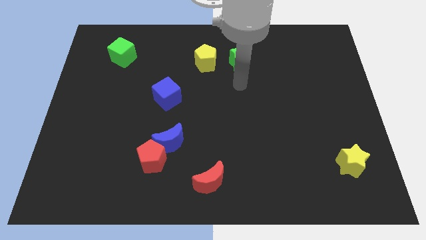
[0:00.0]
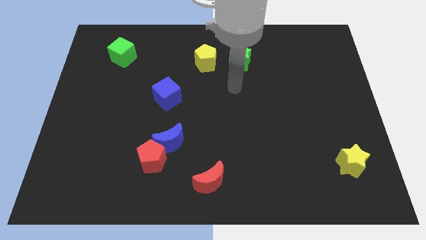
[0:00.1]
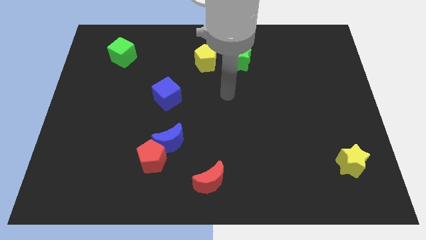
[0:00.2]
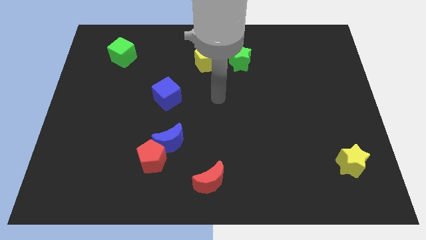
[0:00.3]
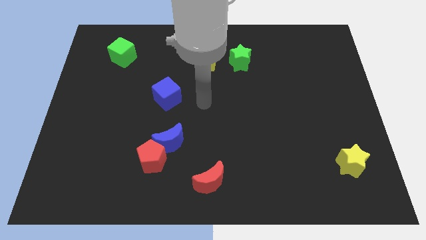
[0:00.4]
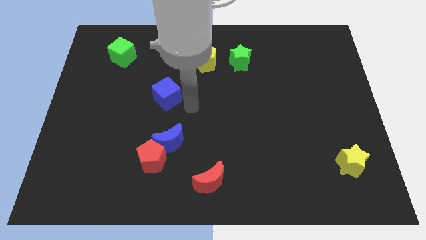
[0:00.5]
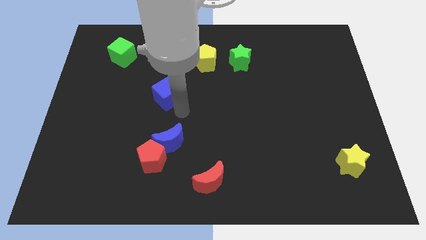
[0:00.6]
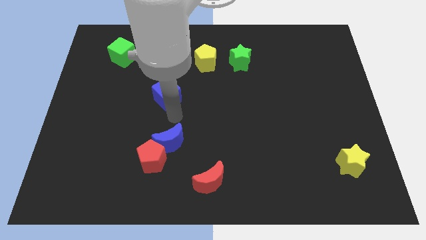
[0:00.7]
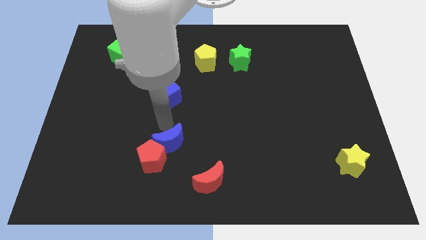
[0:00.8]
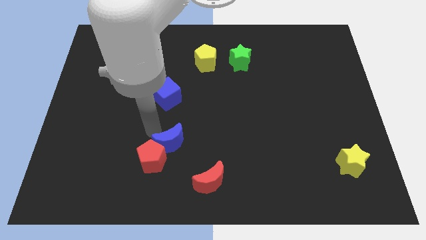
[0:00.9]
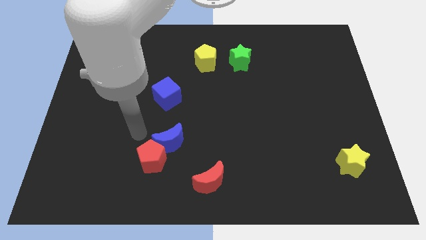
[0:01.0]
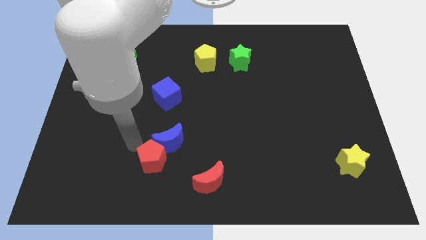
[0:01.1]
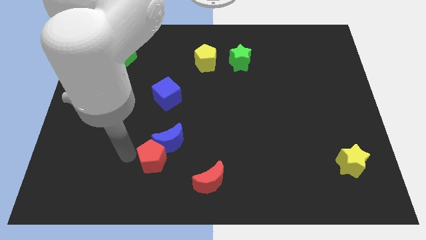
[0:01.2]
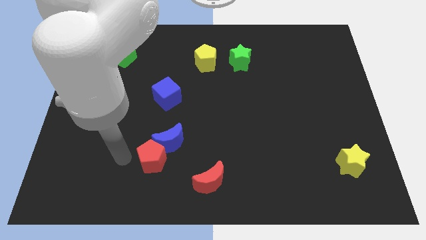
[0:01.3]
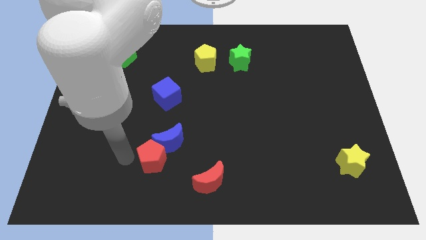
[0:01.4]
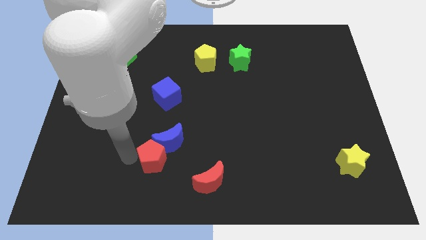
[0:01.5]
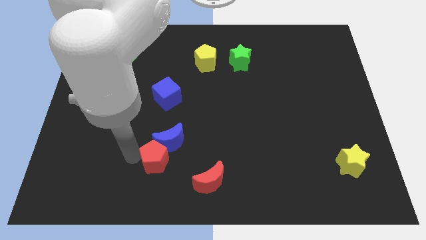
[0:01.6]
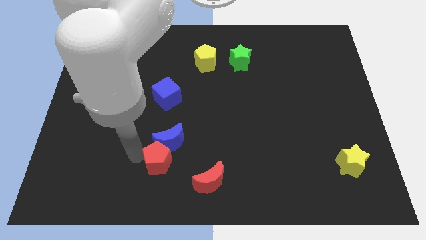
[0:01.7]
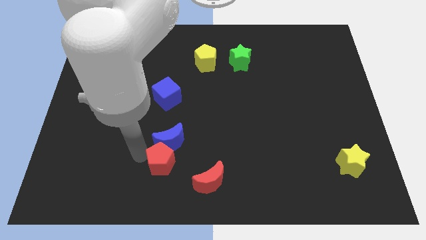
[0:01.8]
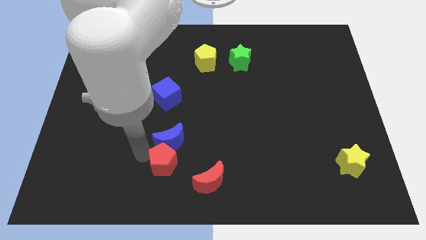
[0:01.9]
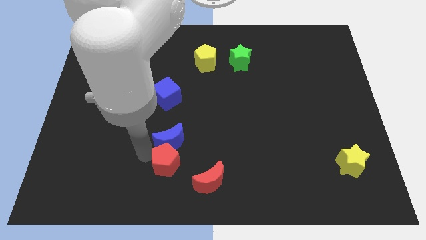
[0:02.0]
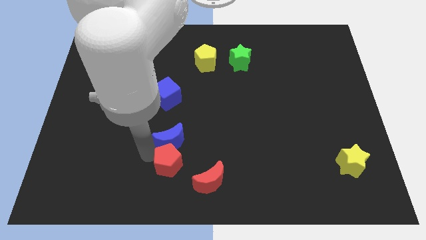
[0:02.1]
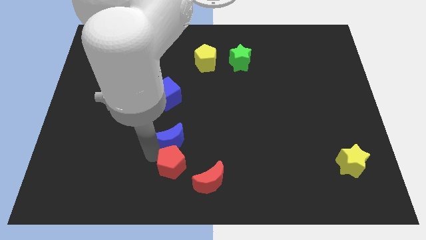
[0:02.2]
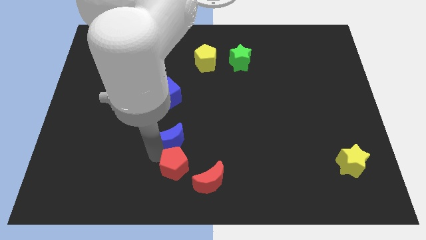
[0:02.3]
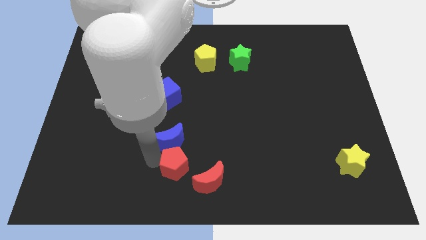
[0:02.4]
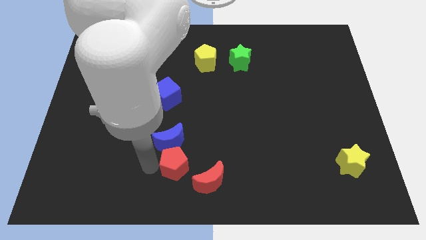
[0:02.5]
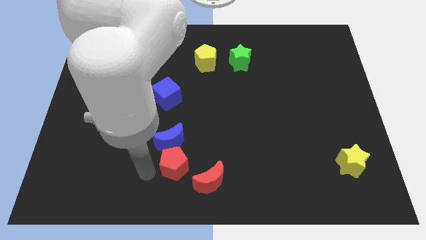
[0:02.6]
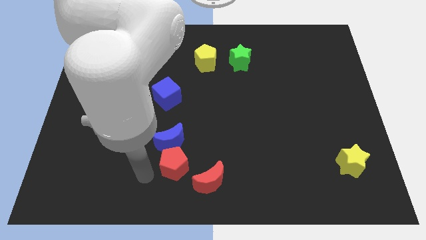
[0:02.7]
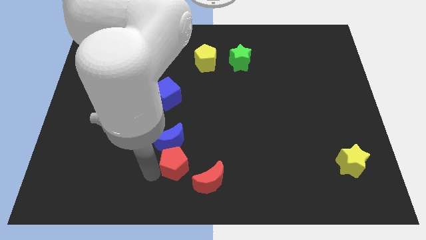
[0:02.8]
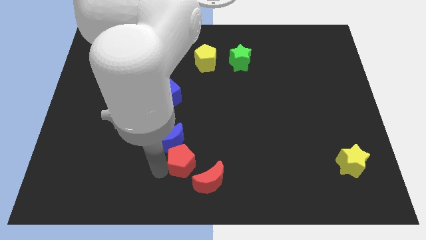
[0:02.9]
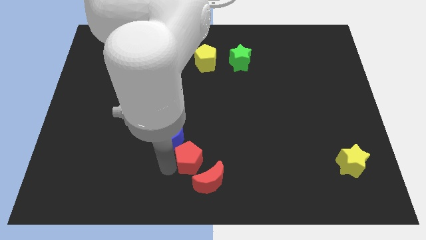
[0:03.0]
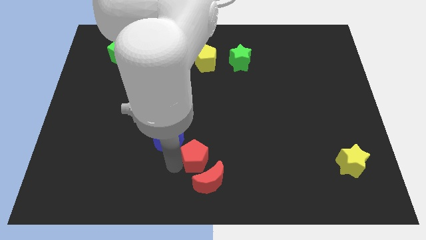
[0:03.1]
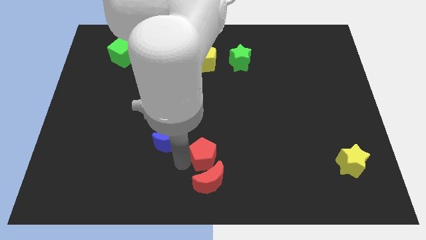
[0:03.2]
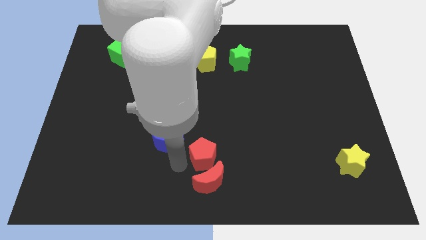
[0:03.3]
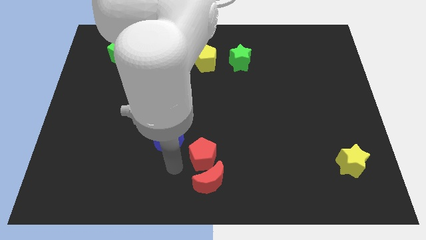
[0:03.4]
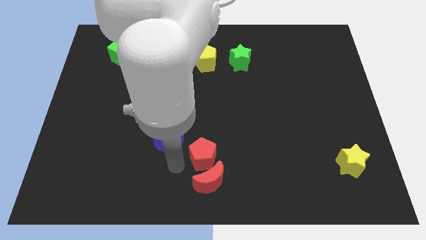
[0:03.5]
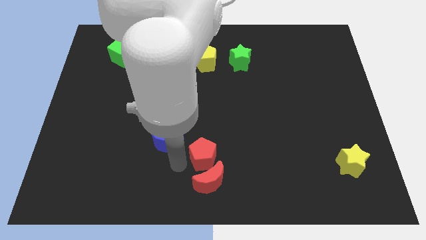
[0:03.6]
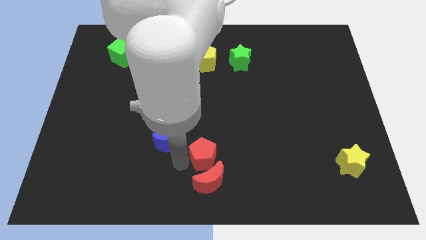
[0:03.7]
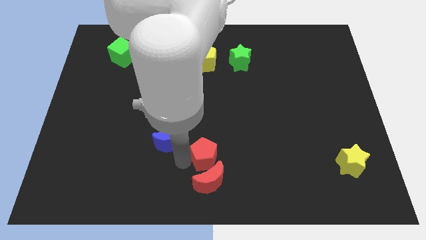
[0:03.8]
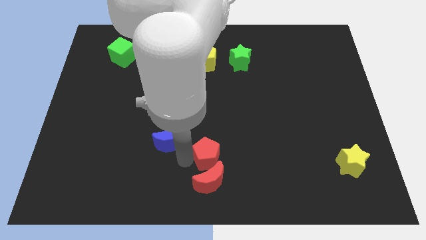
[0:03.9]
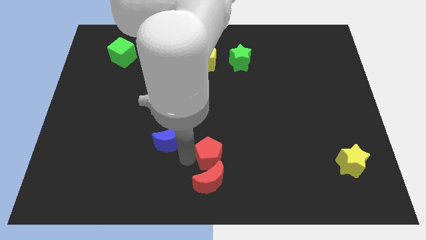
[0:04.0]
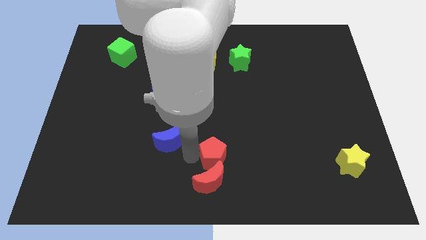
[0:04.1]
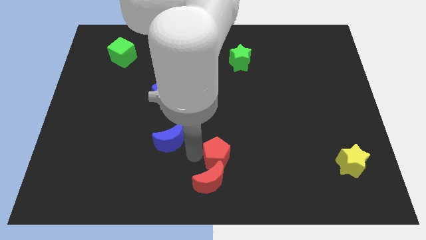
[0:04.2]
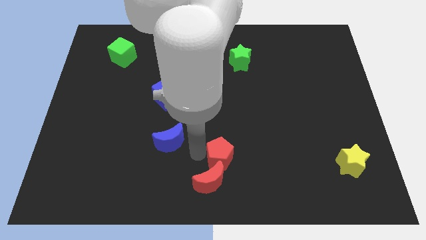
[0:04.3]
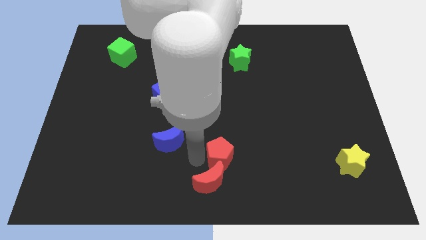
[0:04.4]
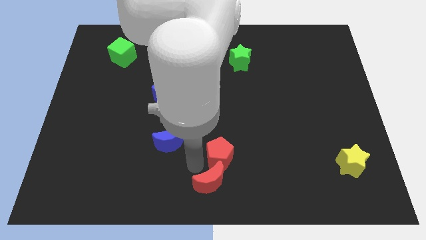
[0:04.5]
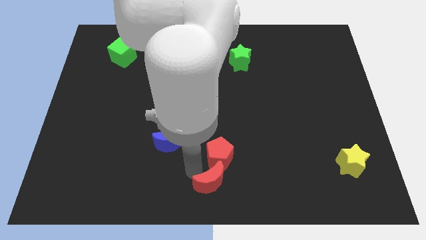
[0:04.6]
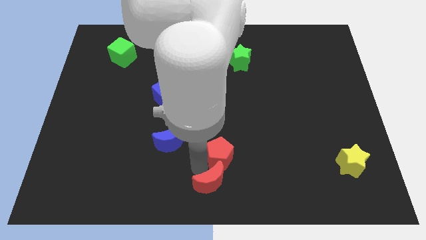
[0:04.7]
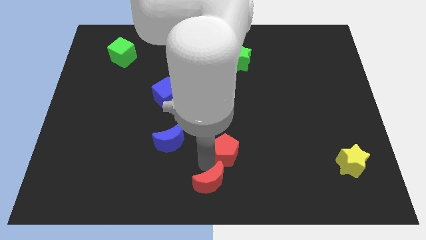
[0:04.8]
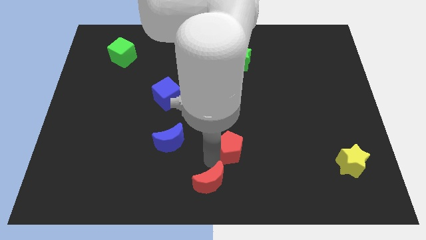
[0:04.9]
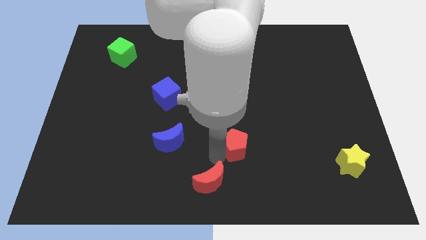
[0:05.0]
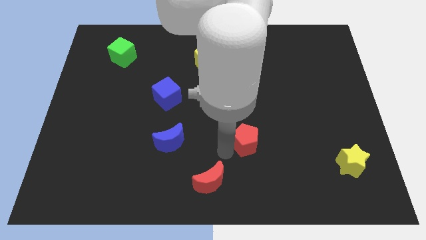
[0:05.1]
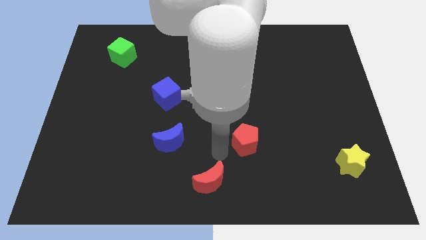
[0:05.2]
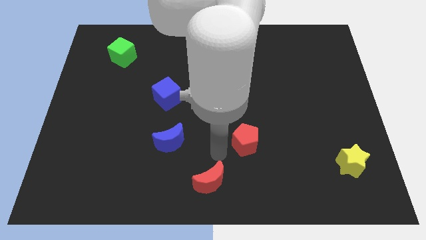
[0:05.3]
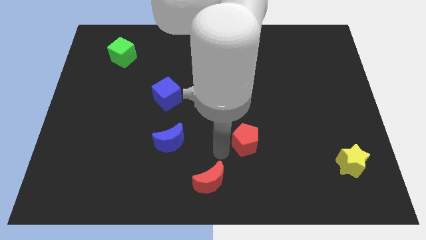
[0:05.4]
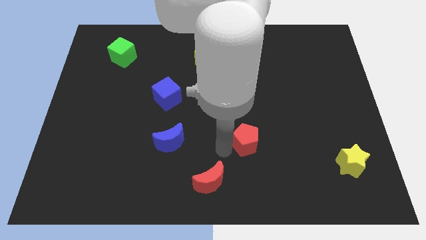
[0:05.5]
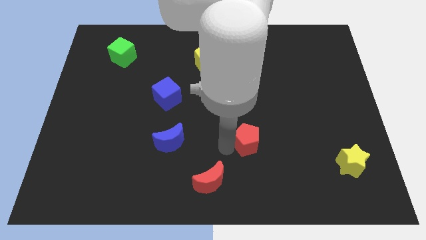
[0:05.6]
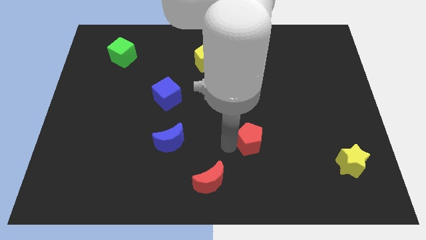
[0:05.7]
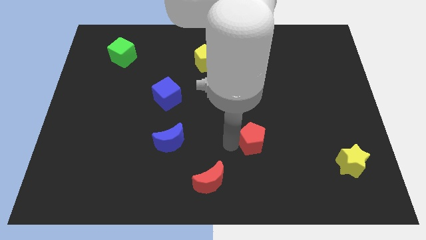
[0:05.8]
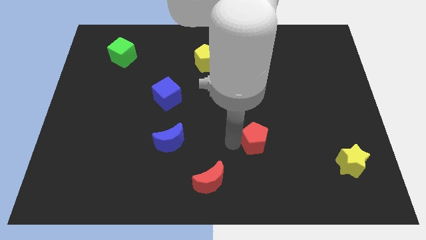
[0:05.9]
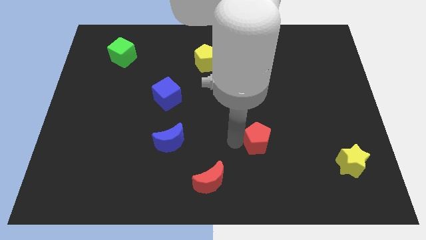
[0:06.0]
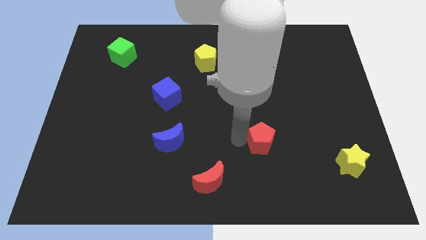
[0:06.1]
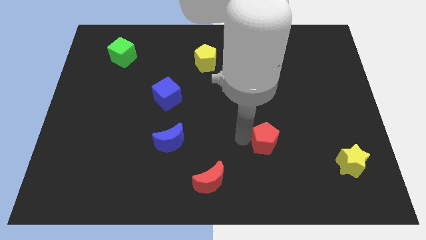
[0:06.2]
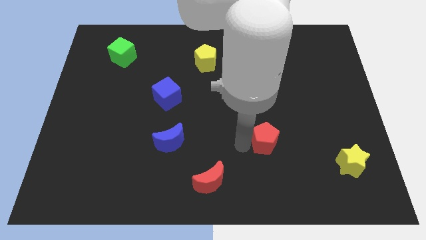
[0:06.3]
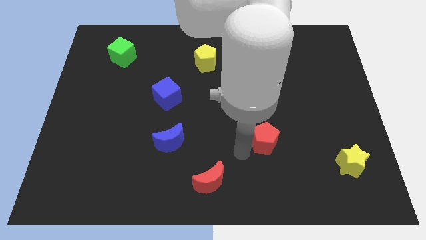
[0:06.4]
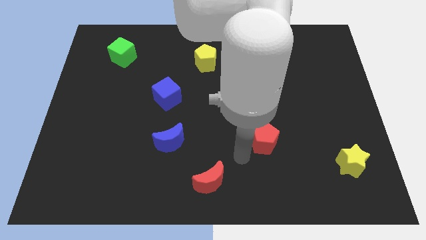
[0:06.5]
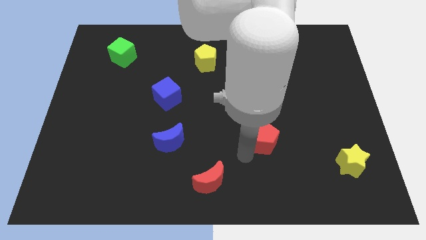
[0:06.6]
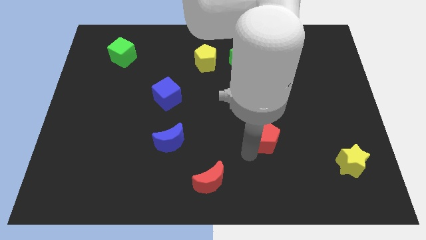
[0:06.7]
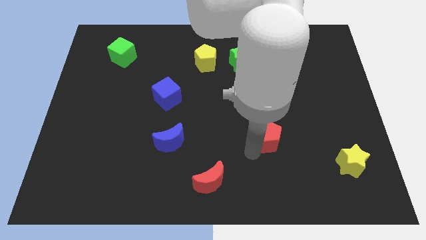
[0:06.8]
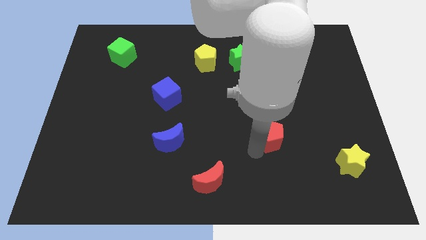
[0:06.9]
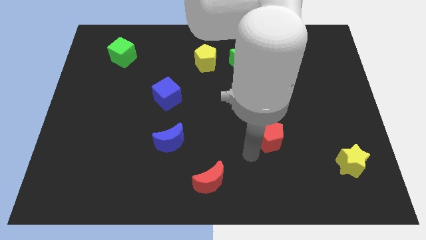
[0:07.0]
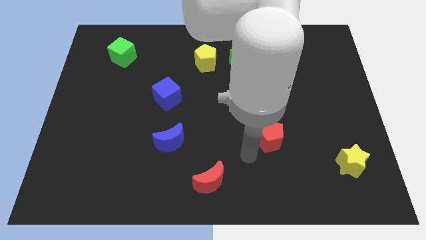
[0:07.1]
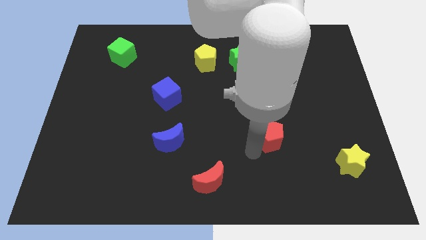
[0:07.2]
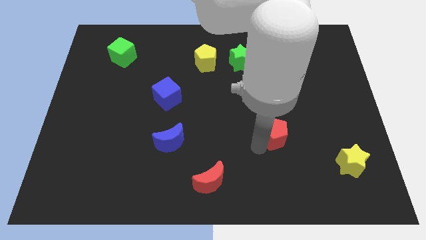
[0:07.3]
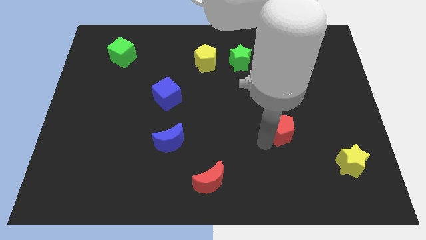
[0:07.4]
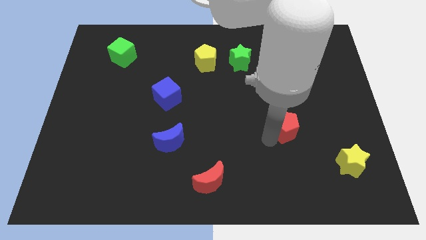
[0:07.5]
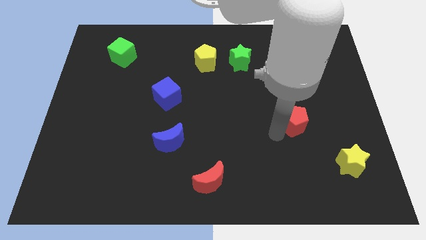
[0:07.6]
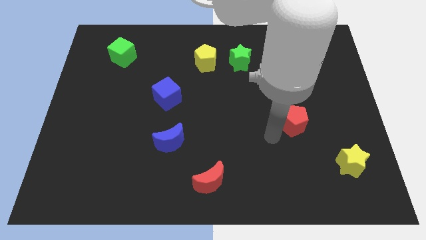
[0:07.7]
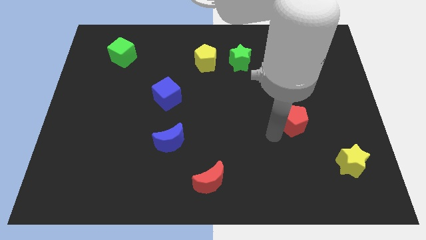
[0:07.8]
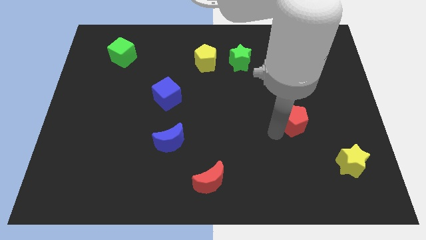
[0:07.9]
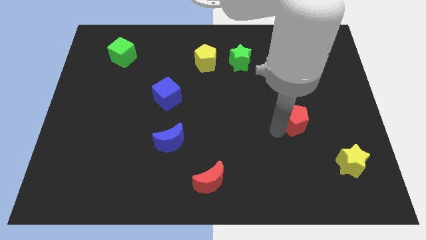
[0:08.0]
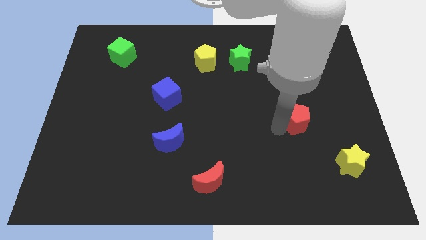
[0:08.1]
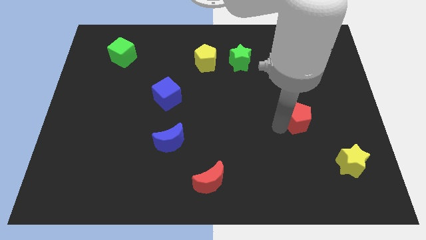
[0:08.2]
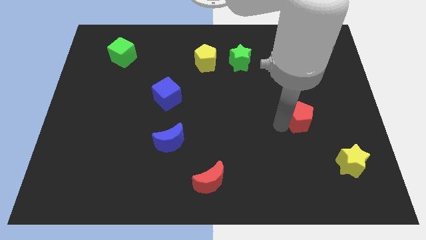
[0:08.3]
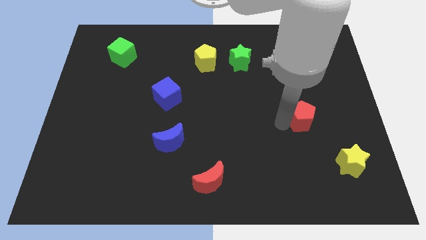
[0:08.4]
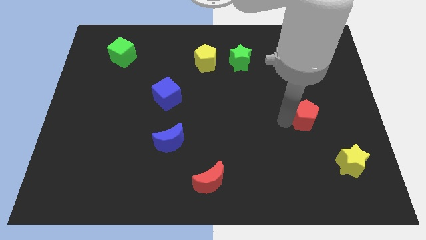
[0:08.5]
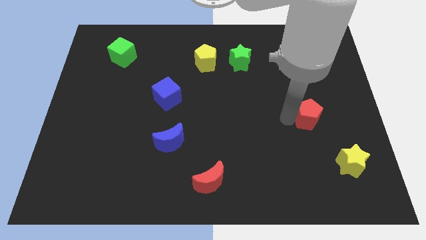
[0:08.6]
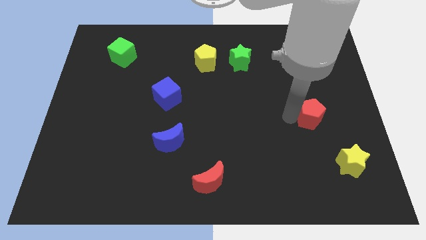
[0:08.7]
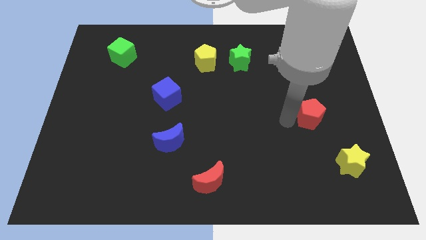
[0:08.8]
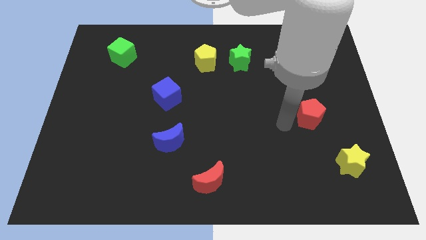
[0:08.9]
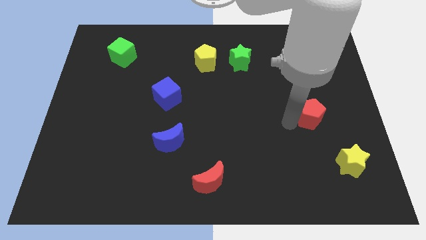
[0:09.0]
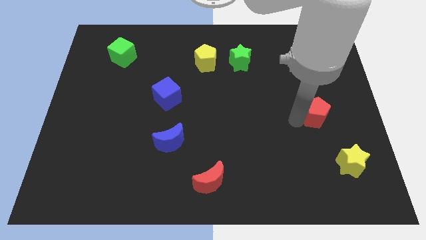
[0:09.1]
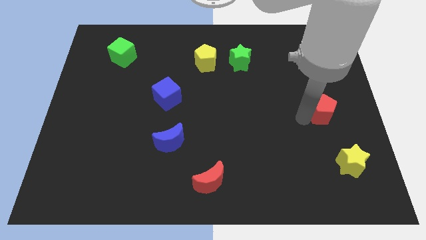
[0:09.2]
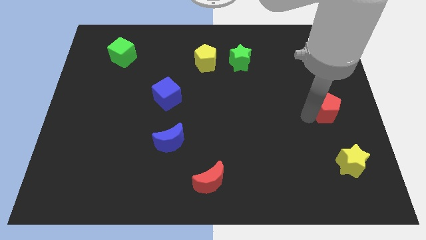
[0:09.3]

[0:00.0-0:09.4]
put the red pentagon to the right side of the board
